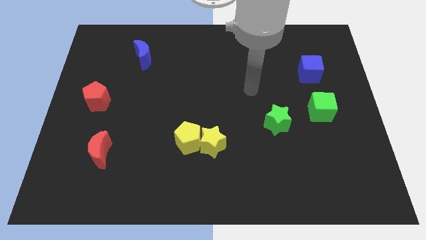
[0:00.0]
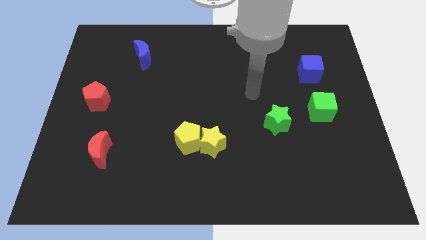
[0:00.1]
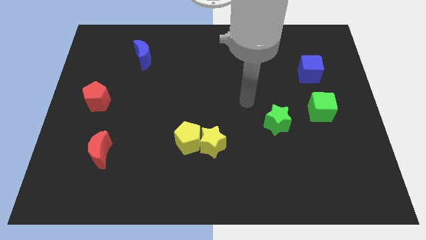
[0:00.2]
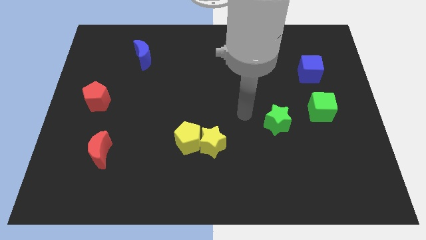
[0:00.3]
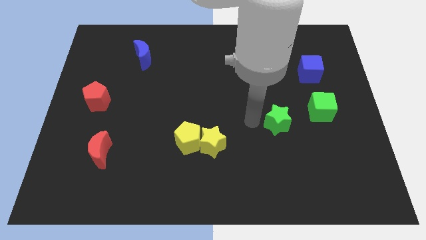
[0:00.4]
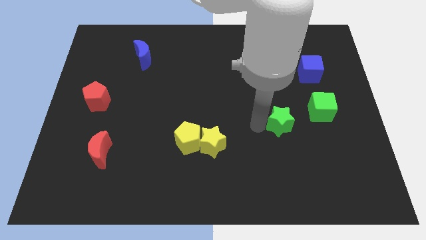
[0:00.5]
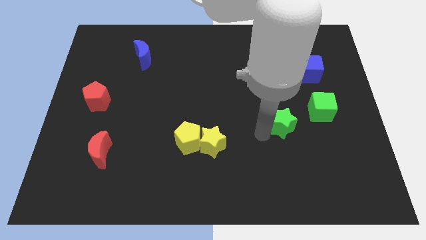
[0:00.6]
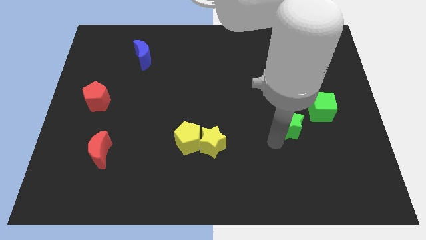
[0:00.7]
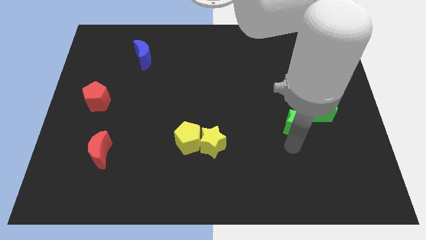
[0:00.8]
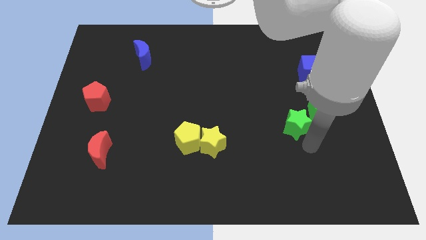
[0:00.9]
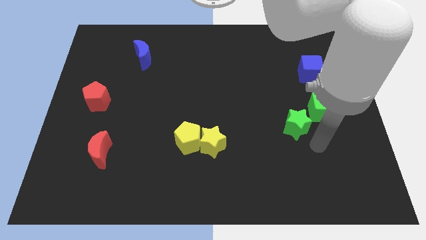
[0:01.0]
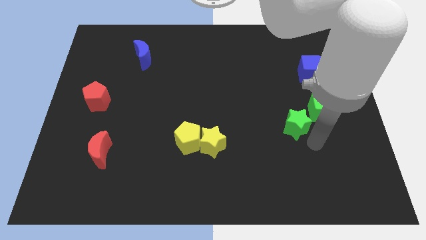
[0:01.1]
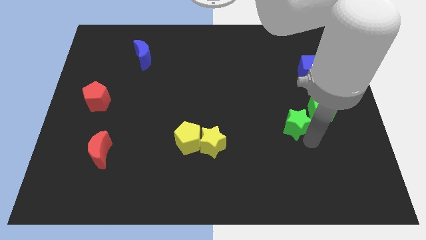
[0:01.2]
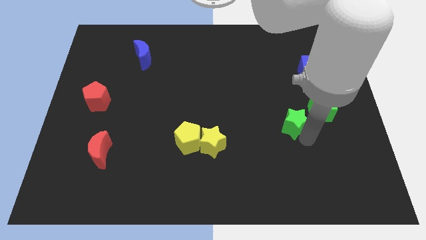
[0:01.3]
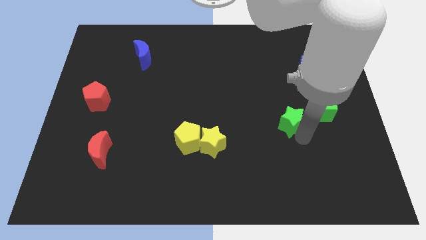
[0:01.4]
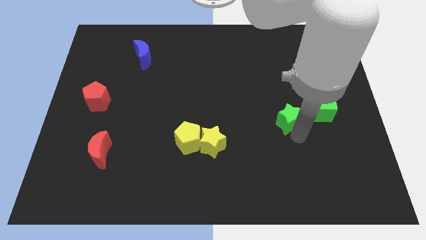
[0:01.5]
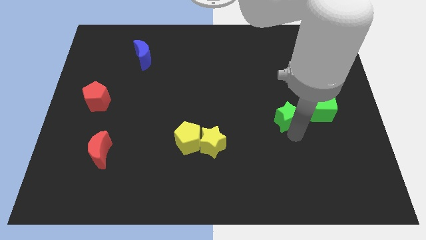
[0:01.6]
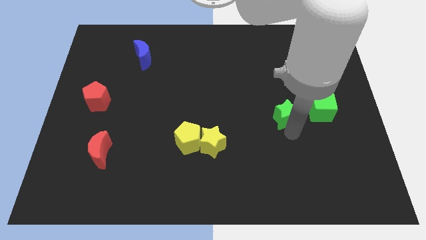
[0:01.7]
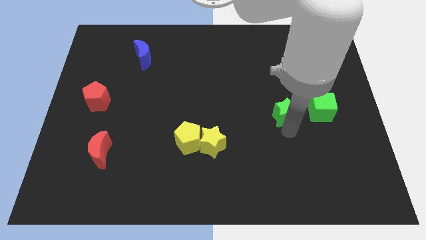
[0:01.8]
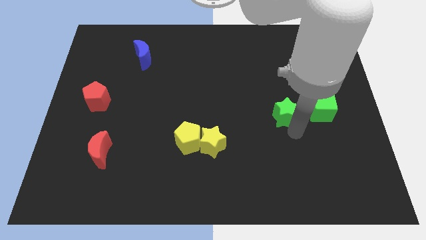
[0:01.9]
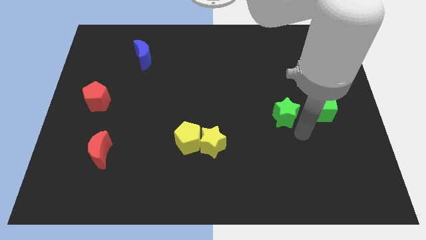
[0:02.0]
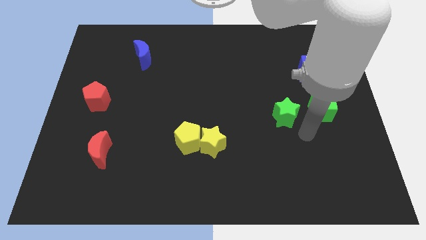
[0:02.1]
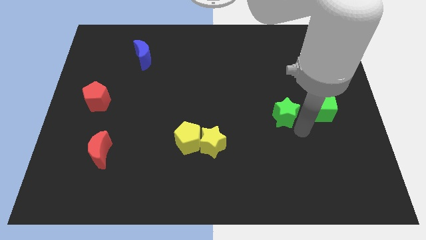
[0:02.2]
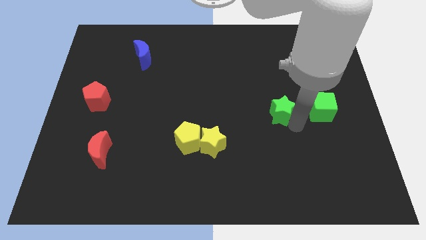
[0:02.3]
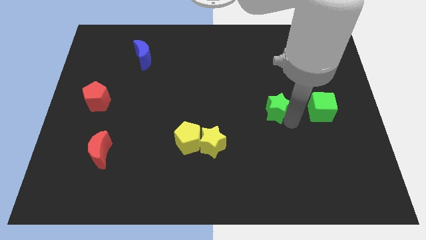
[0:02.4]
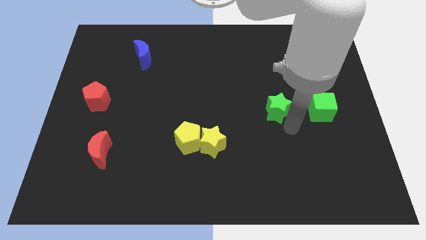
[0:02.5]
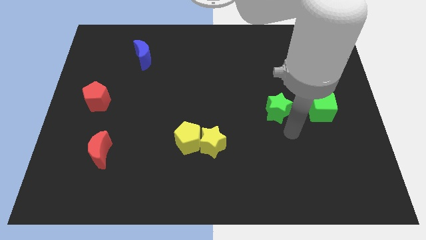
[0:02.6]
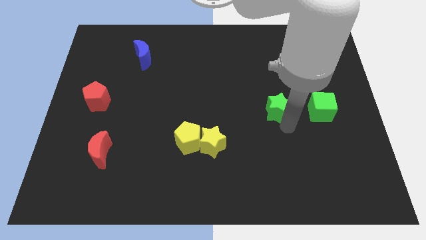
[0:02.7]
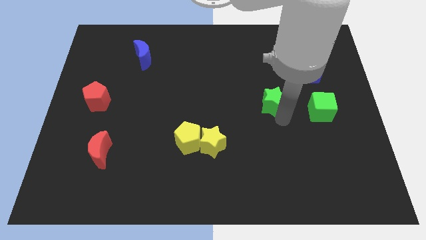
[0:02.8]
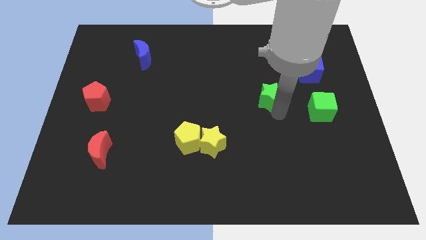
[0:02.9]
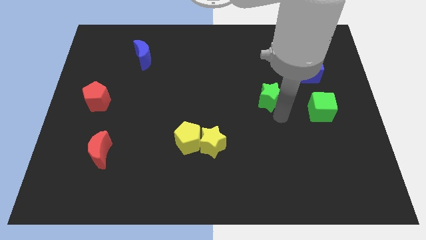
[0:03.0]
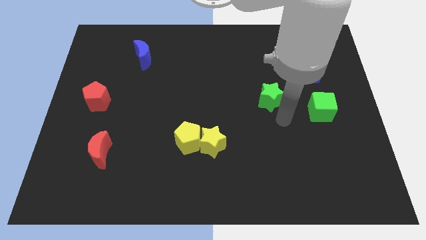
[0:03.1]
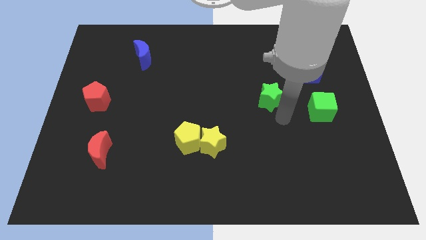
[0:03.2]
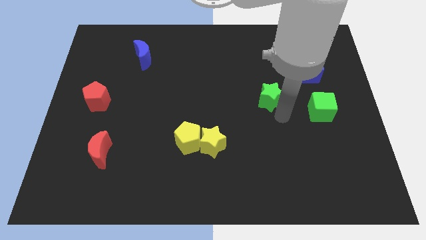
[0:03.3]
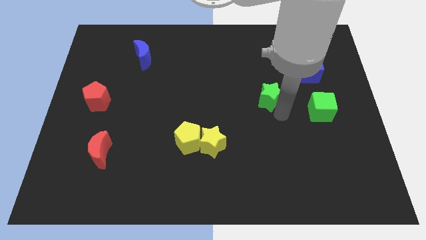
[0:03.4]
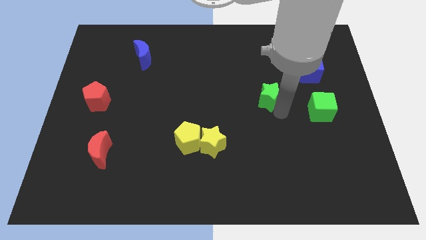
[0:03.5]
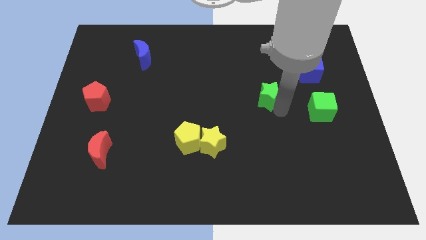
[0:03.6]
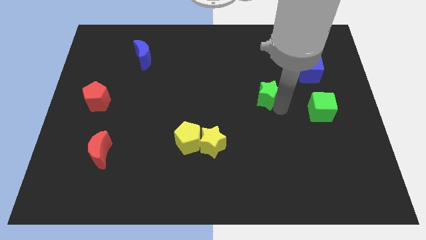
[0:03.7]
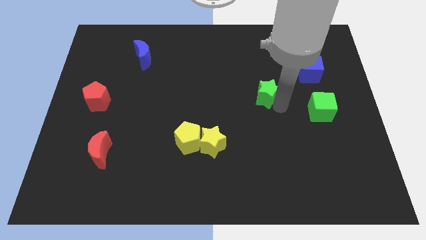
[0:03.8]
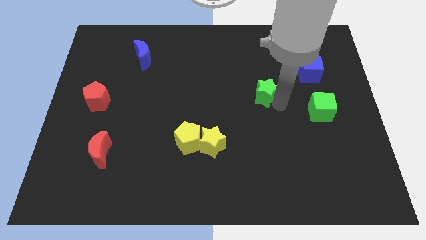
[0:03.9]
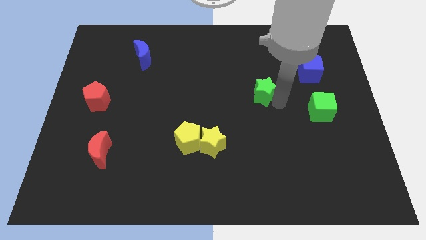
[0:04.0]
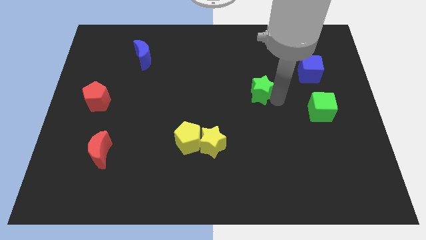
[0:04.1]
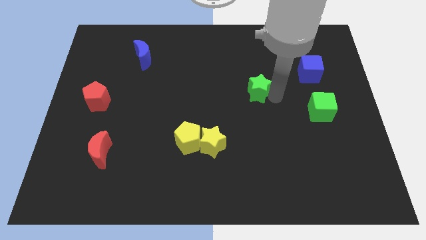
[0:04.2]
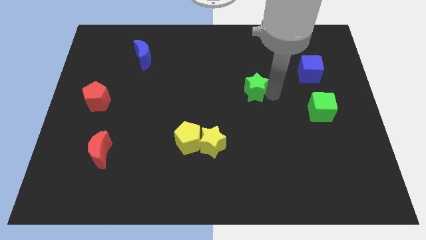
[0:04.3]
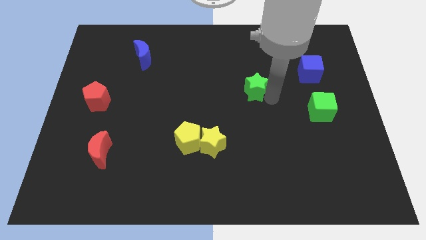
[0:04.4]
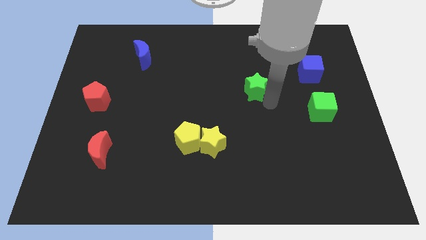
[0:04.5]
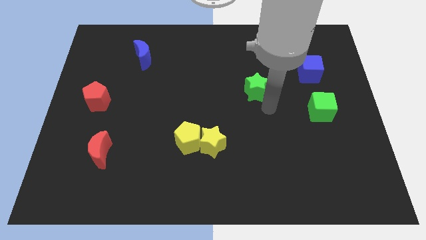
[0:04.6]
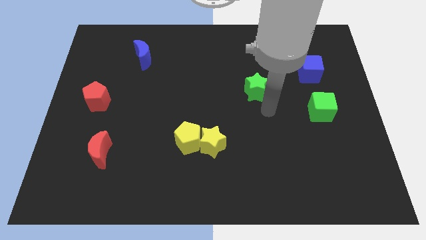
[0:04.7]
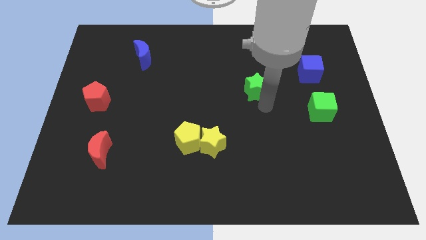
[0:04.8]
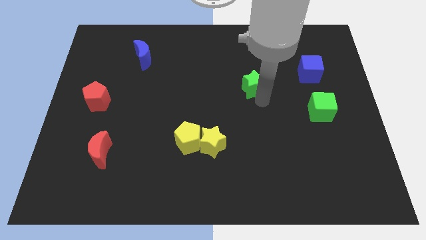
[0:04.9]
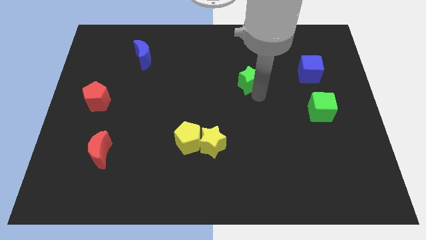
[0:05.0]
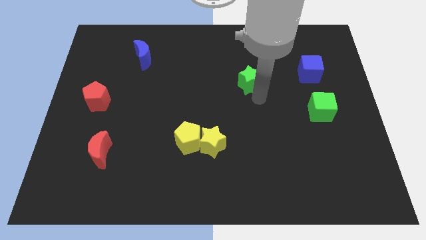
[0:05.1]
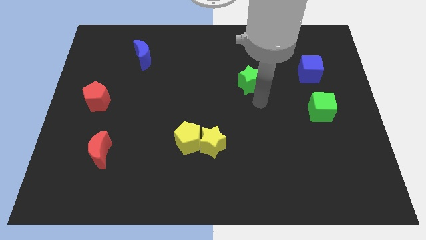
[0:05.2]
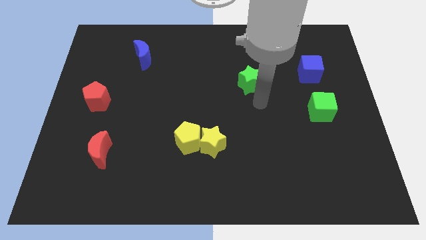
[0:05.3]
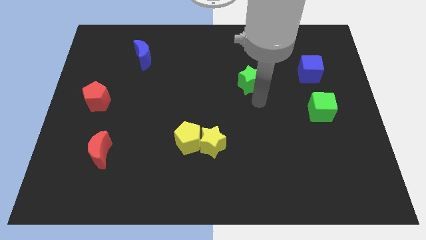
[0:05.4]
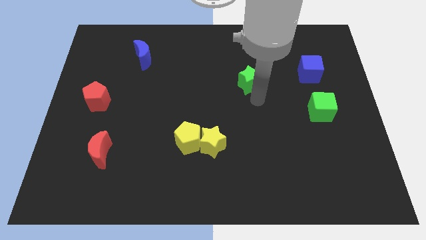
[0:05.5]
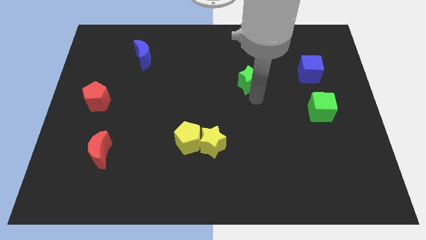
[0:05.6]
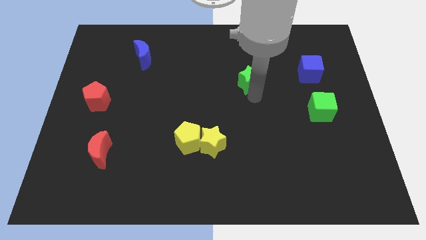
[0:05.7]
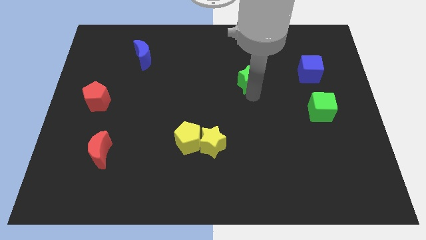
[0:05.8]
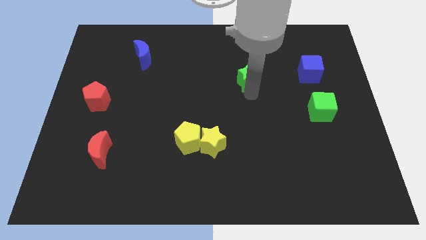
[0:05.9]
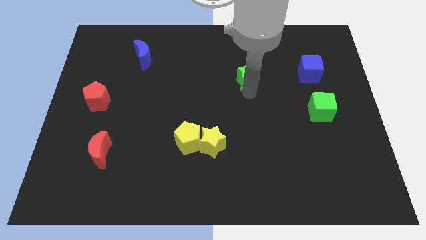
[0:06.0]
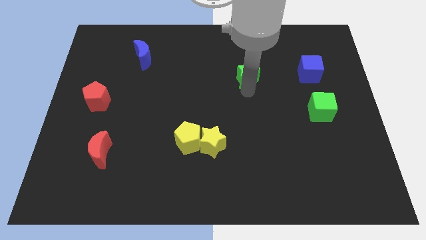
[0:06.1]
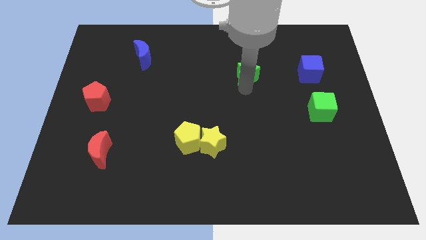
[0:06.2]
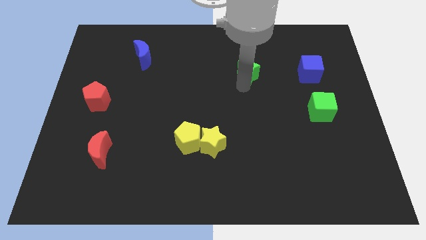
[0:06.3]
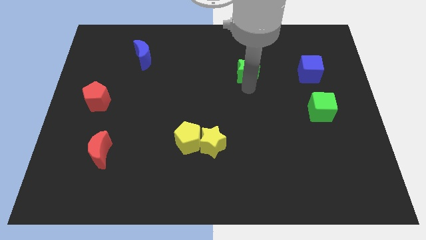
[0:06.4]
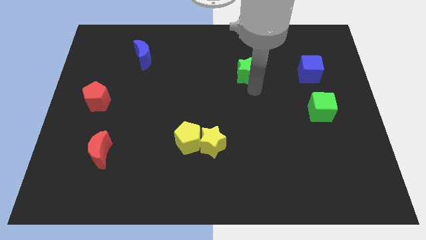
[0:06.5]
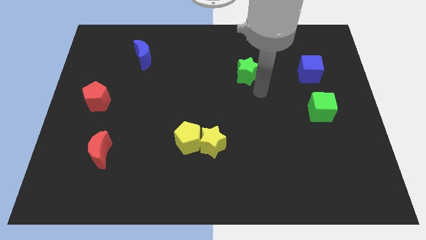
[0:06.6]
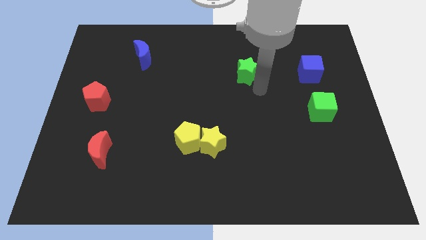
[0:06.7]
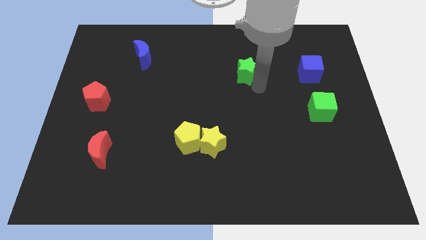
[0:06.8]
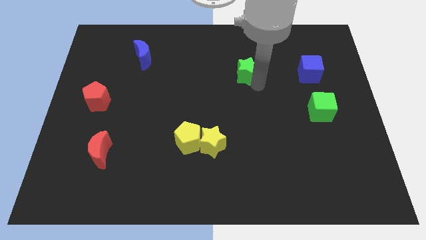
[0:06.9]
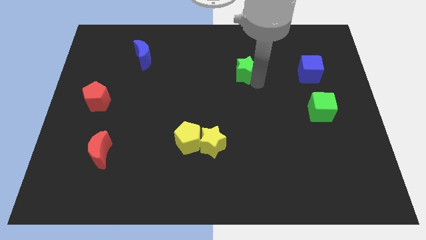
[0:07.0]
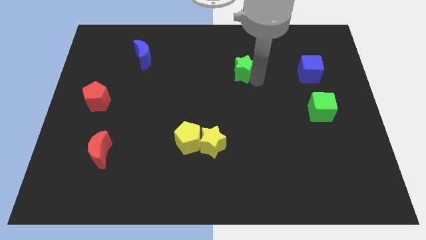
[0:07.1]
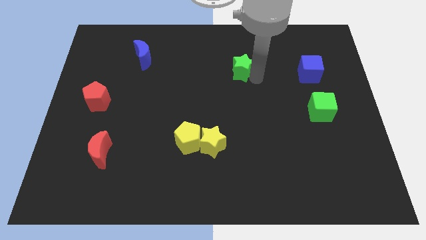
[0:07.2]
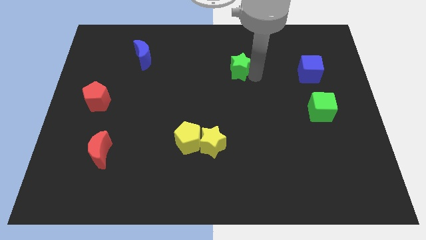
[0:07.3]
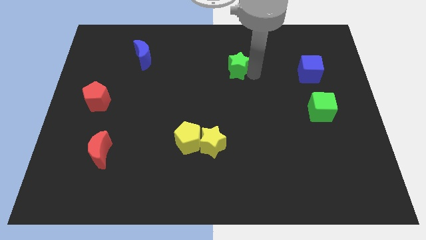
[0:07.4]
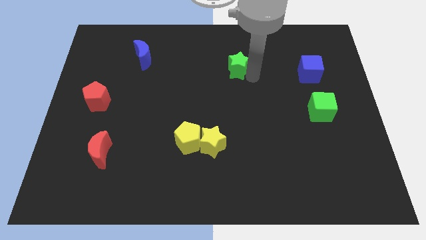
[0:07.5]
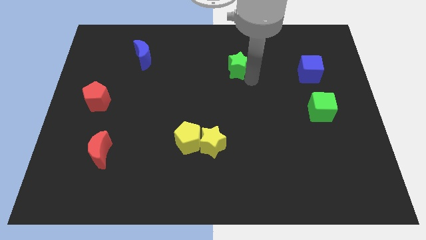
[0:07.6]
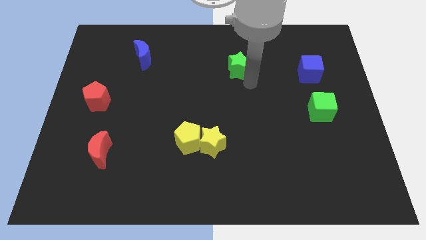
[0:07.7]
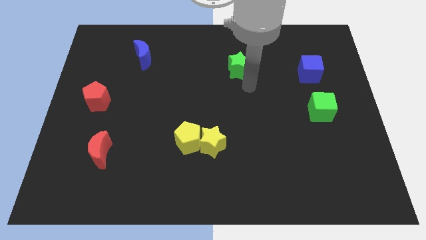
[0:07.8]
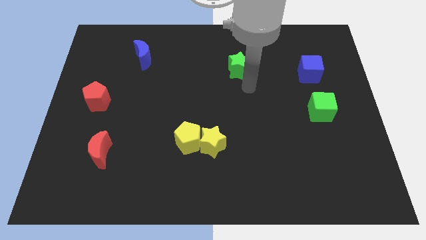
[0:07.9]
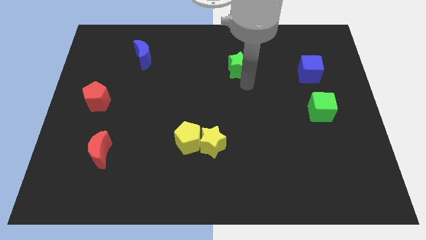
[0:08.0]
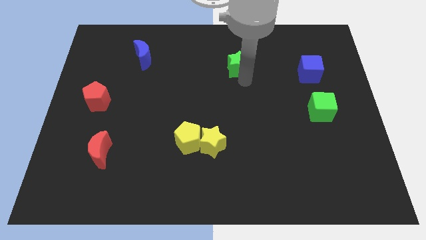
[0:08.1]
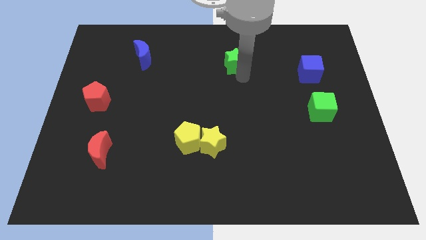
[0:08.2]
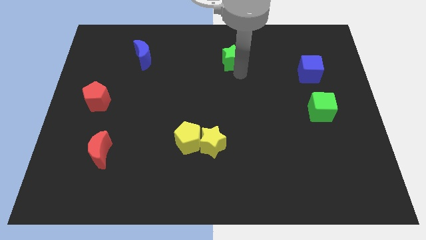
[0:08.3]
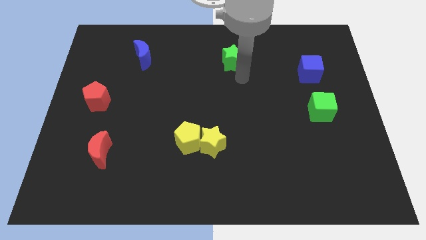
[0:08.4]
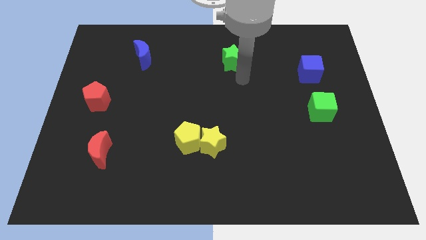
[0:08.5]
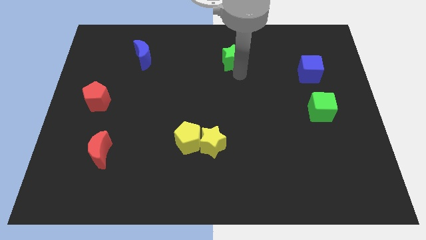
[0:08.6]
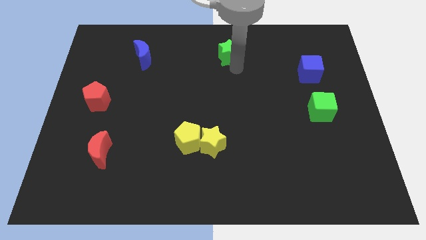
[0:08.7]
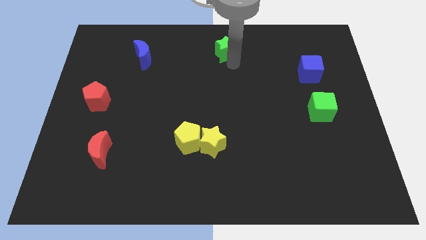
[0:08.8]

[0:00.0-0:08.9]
move the green star to the top side
